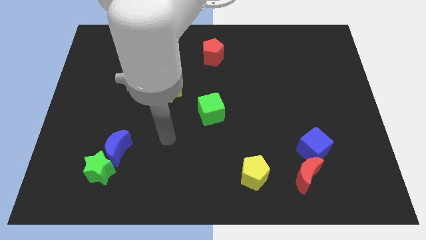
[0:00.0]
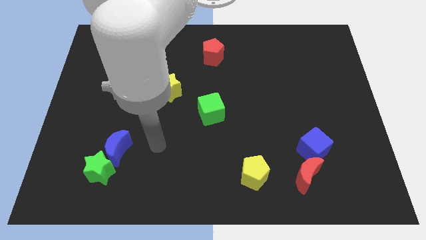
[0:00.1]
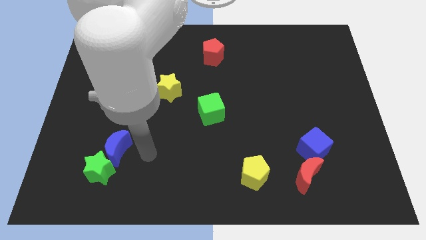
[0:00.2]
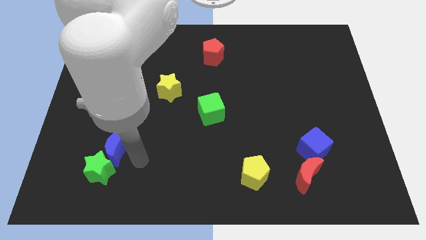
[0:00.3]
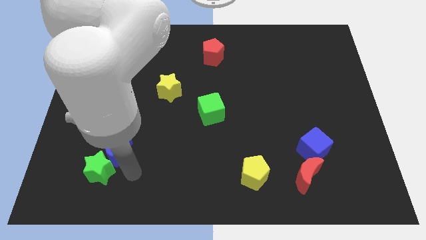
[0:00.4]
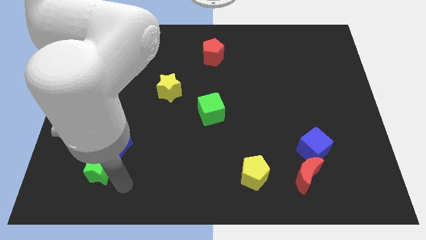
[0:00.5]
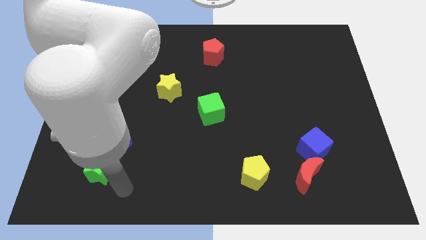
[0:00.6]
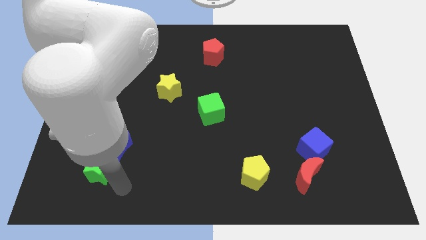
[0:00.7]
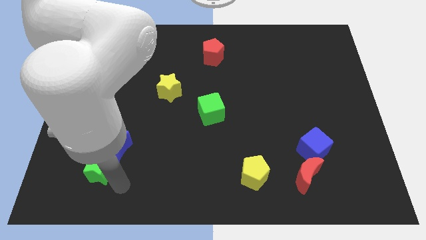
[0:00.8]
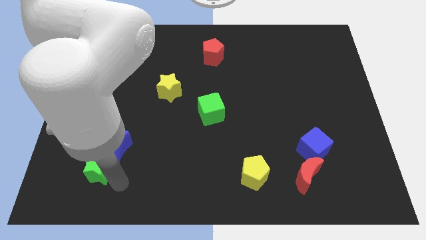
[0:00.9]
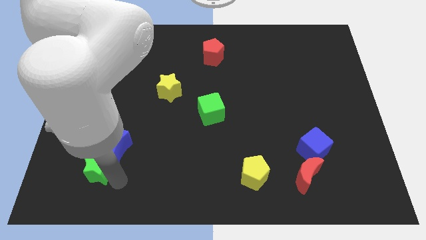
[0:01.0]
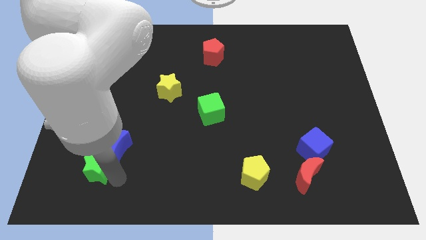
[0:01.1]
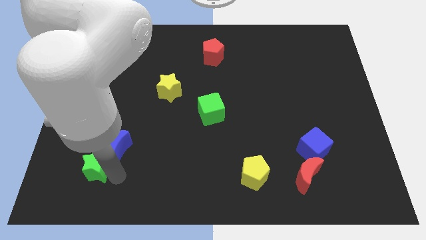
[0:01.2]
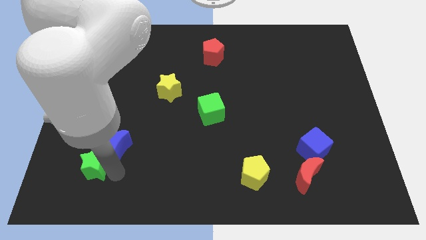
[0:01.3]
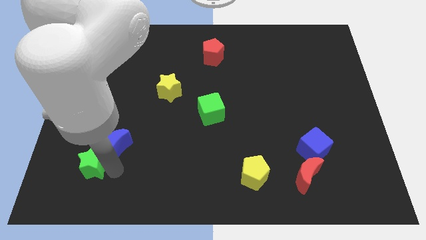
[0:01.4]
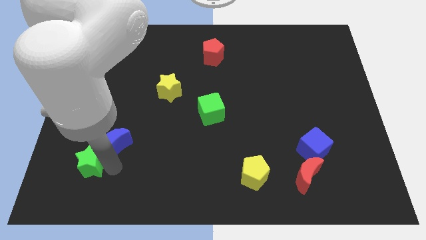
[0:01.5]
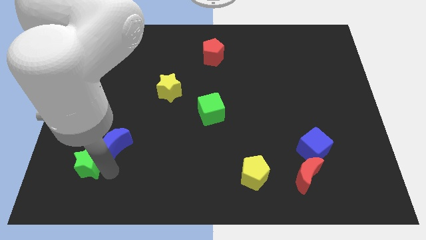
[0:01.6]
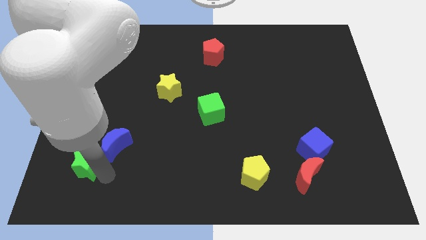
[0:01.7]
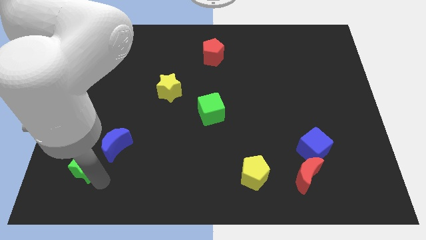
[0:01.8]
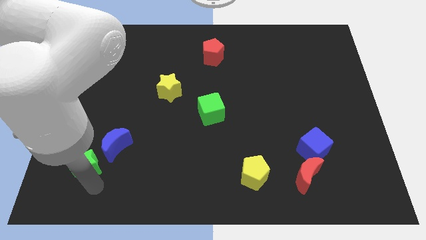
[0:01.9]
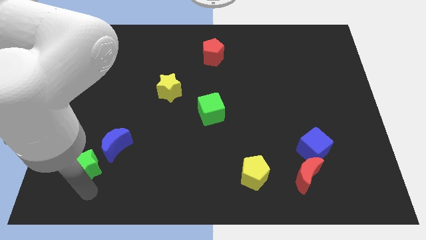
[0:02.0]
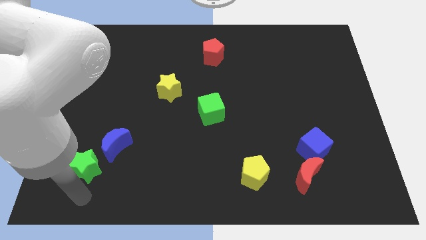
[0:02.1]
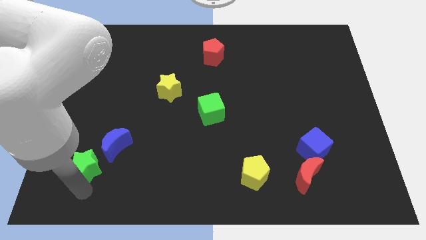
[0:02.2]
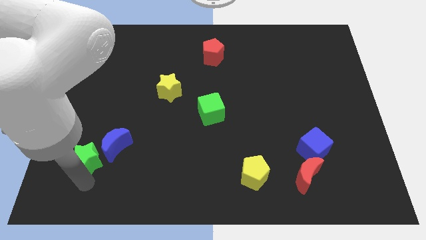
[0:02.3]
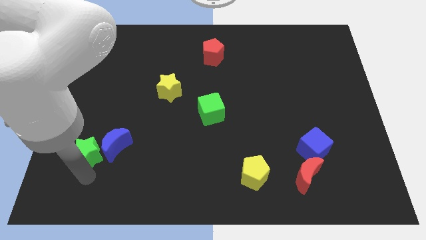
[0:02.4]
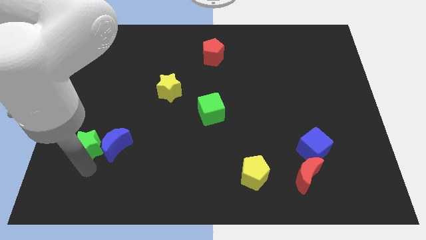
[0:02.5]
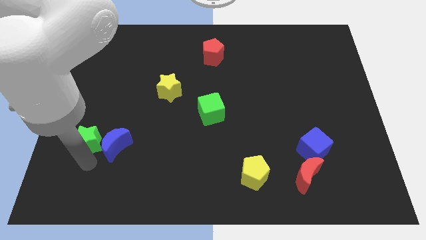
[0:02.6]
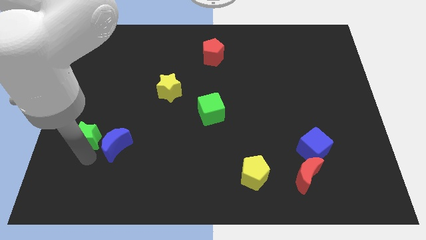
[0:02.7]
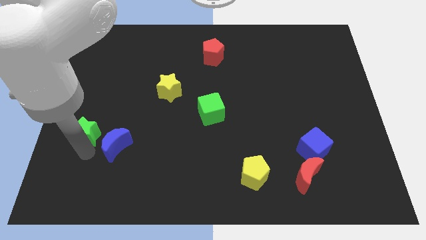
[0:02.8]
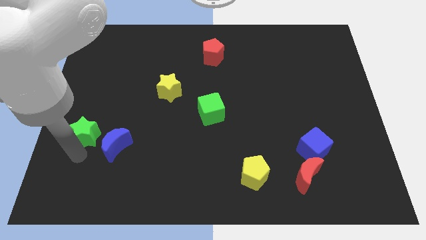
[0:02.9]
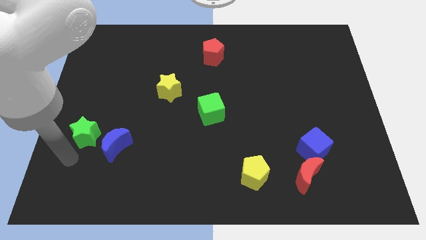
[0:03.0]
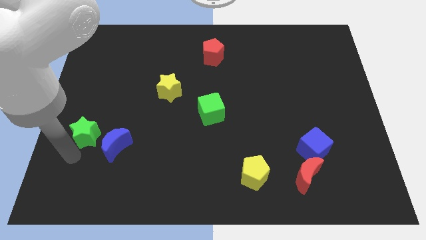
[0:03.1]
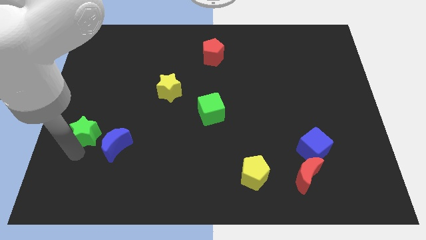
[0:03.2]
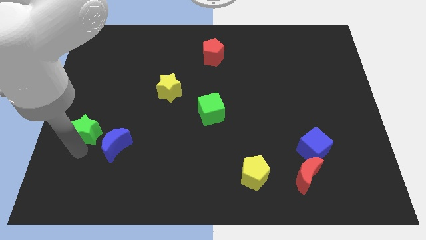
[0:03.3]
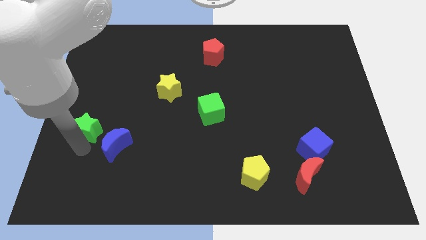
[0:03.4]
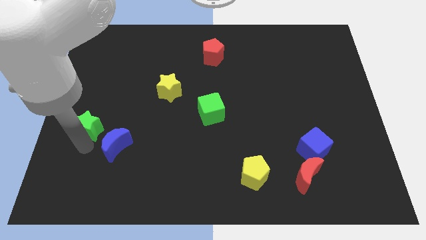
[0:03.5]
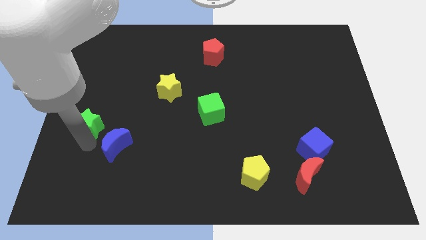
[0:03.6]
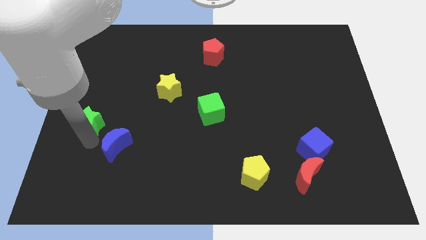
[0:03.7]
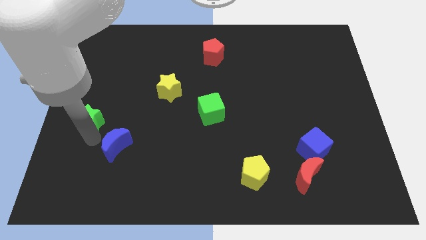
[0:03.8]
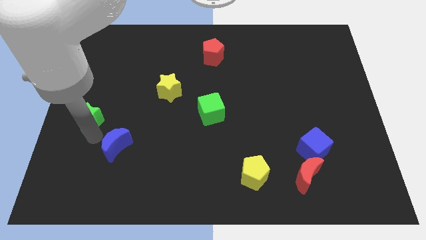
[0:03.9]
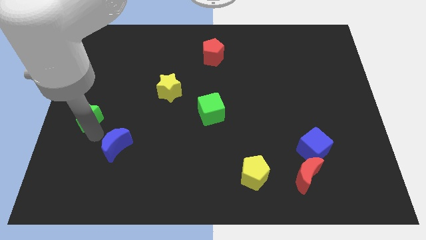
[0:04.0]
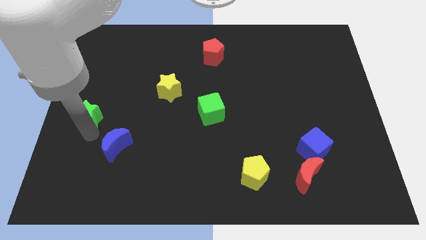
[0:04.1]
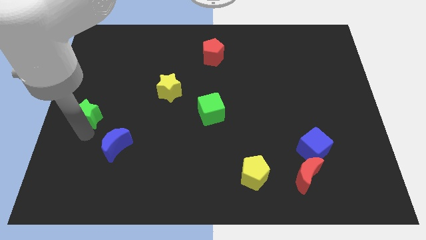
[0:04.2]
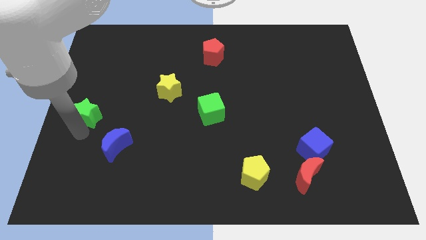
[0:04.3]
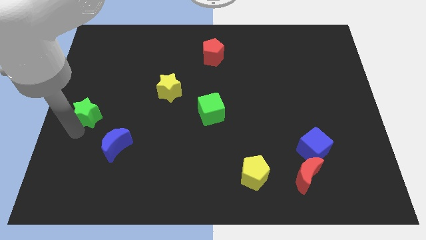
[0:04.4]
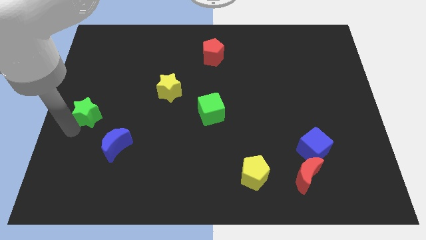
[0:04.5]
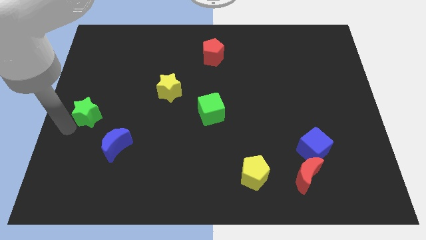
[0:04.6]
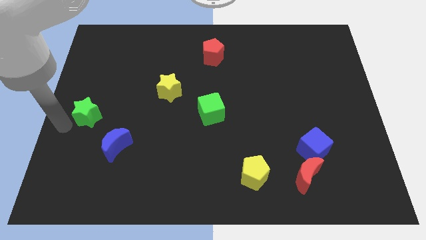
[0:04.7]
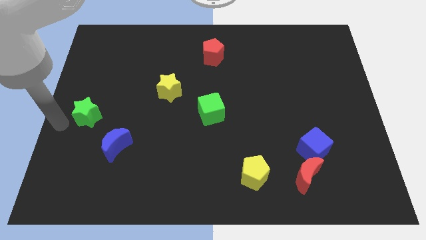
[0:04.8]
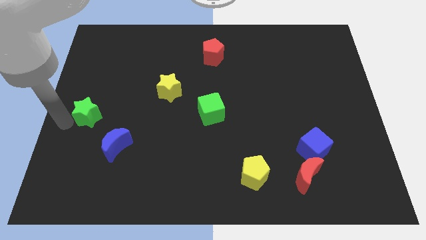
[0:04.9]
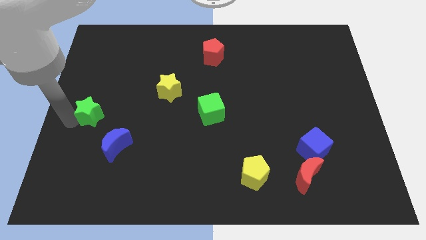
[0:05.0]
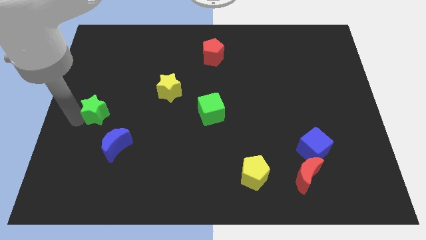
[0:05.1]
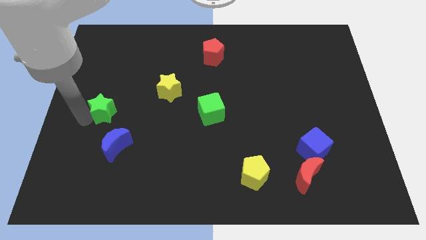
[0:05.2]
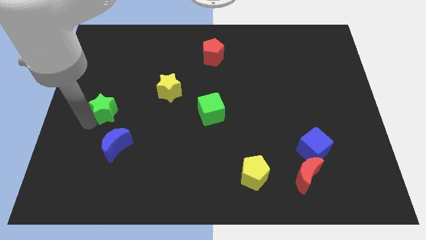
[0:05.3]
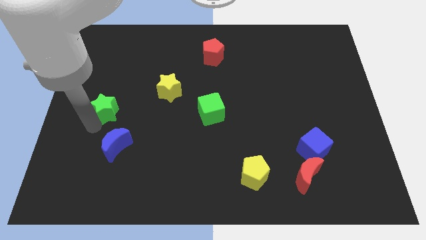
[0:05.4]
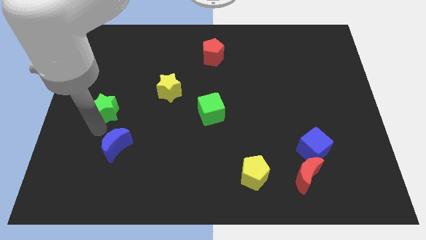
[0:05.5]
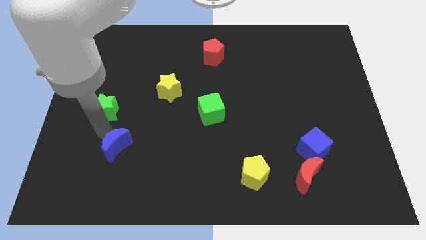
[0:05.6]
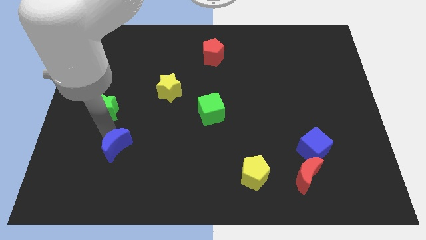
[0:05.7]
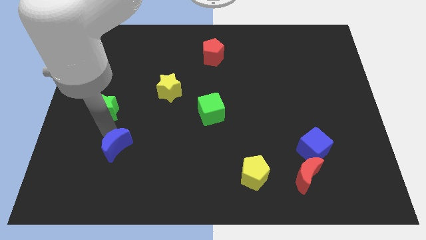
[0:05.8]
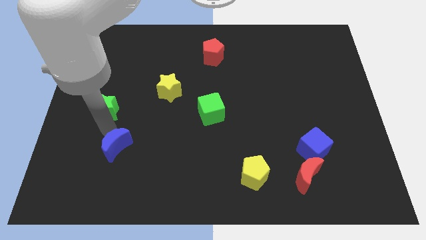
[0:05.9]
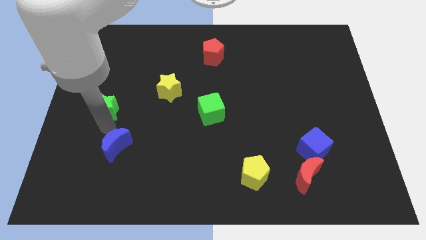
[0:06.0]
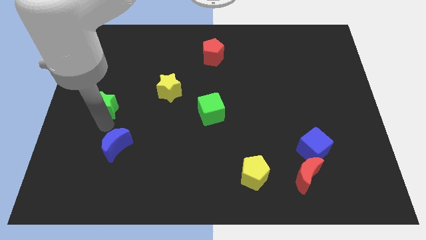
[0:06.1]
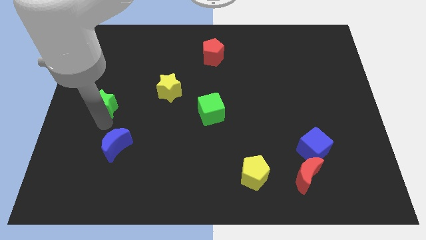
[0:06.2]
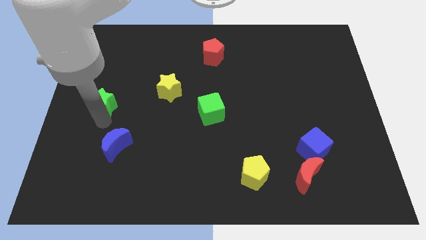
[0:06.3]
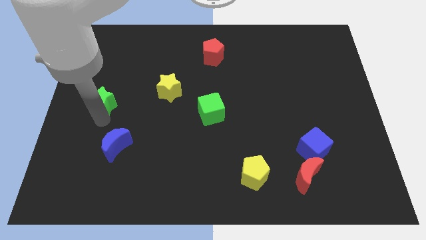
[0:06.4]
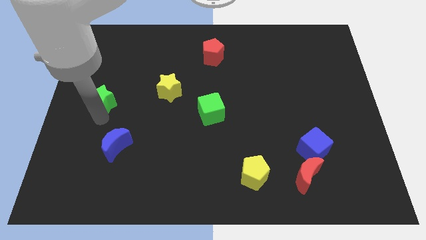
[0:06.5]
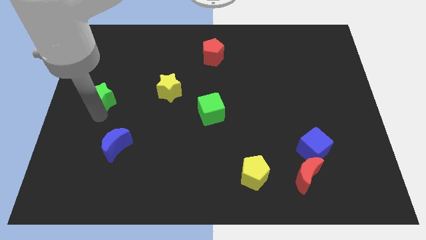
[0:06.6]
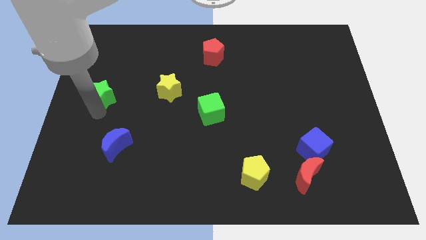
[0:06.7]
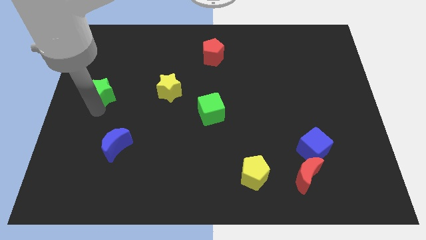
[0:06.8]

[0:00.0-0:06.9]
move the green star up

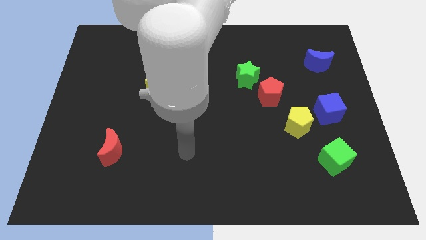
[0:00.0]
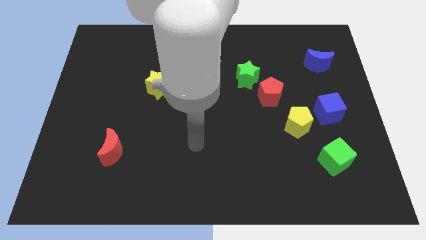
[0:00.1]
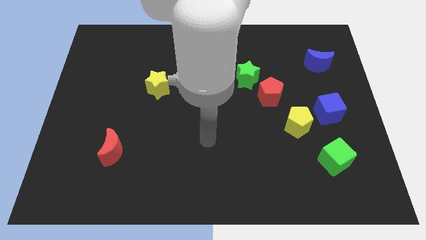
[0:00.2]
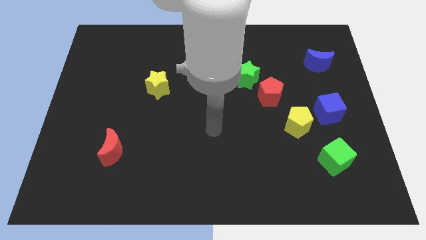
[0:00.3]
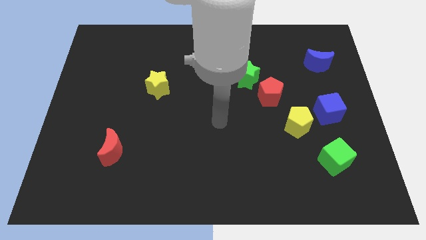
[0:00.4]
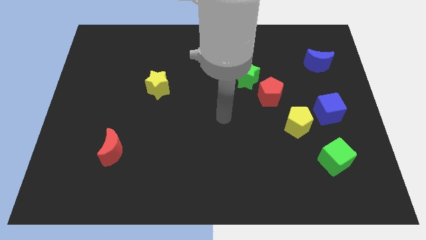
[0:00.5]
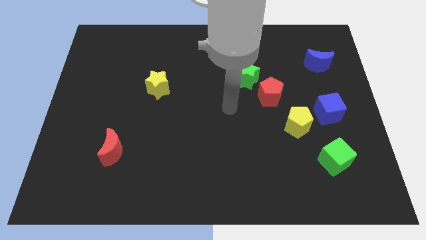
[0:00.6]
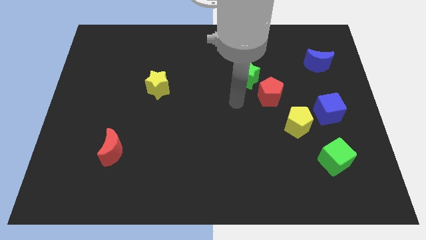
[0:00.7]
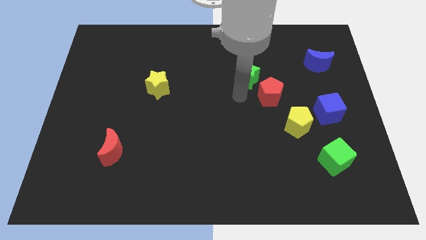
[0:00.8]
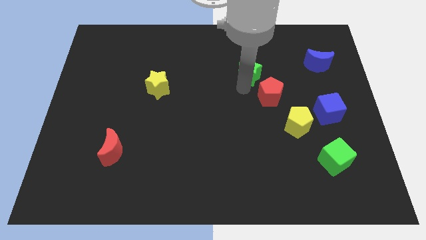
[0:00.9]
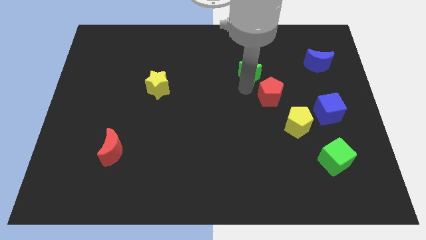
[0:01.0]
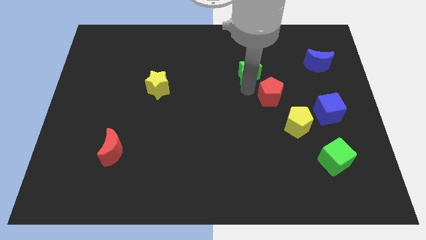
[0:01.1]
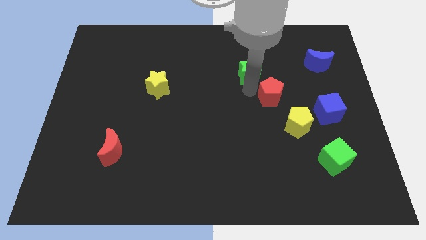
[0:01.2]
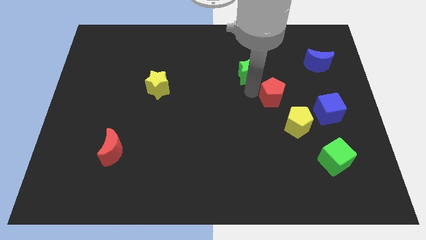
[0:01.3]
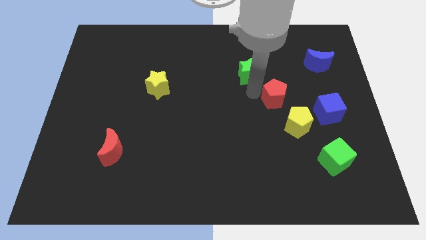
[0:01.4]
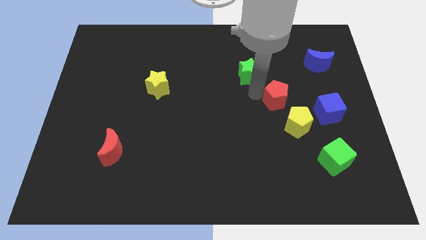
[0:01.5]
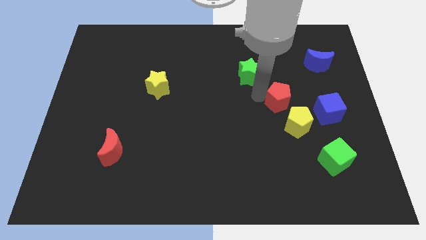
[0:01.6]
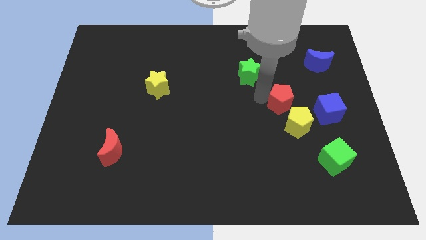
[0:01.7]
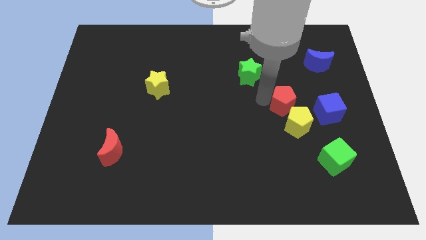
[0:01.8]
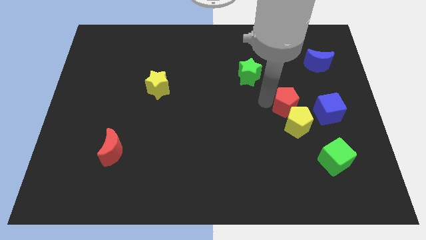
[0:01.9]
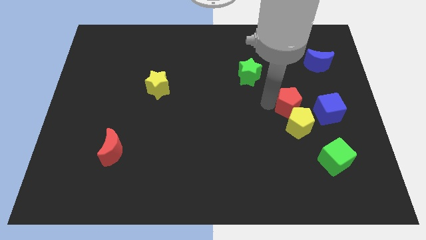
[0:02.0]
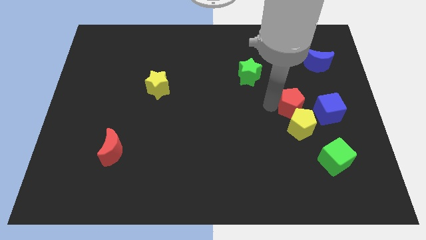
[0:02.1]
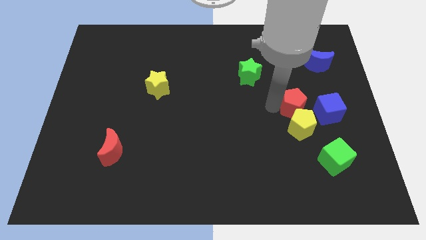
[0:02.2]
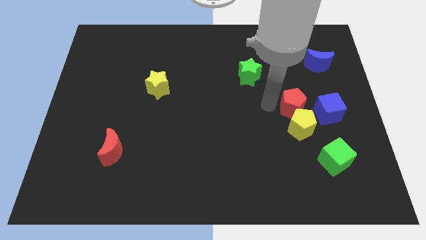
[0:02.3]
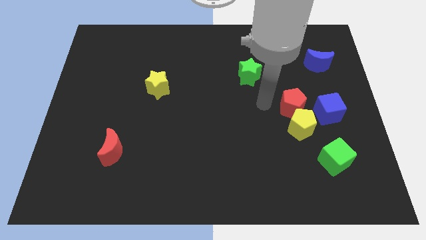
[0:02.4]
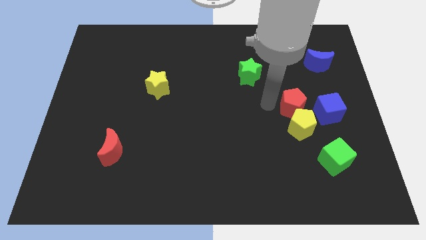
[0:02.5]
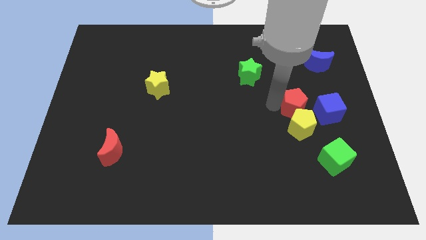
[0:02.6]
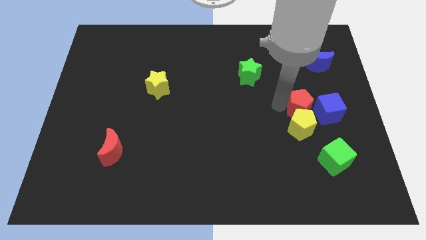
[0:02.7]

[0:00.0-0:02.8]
move the red pentagon somewhat down and to the right diagonally
